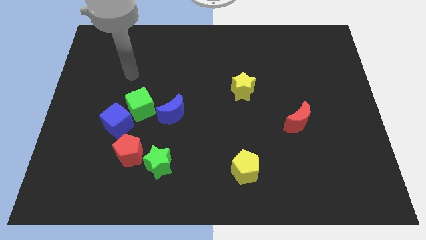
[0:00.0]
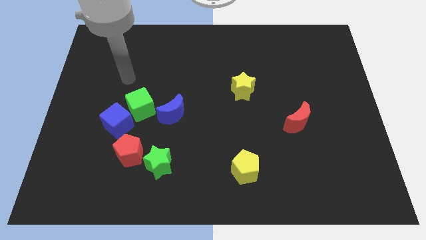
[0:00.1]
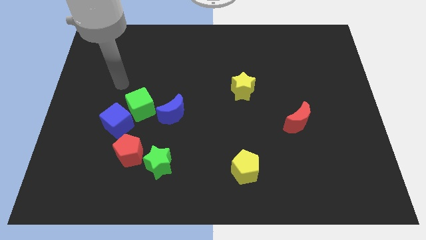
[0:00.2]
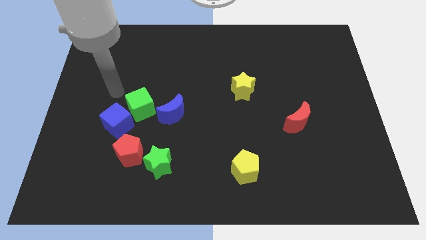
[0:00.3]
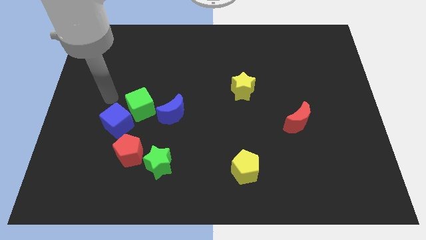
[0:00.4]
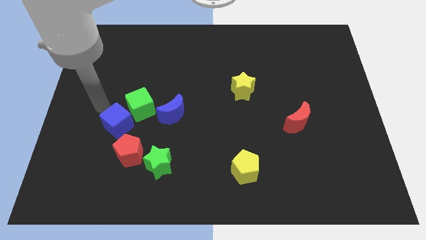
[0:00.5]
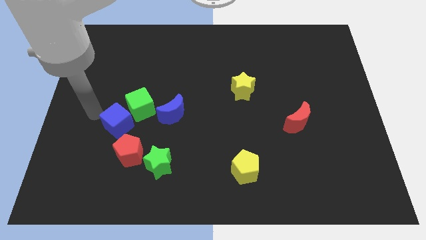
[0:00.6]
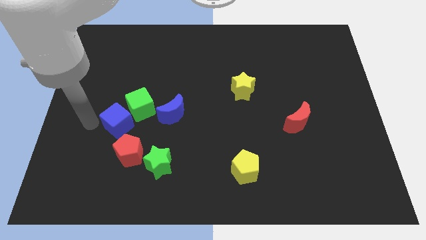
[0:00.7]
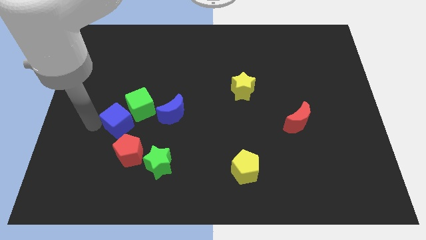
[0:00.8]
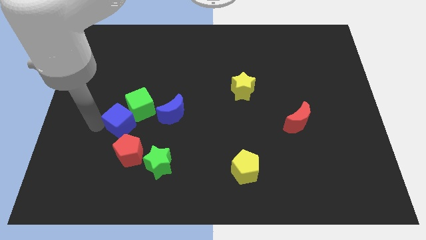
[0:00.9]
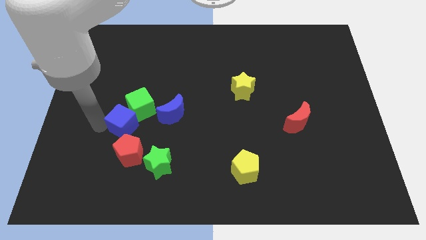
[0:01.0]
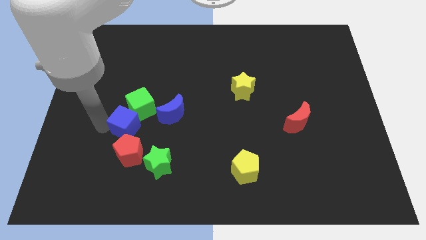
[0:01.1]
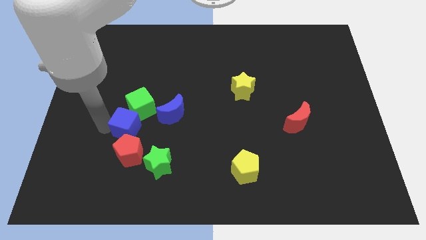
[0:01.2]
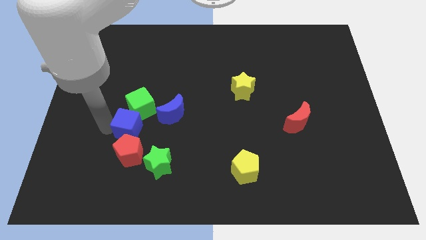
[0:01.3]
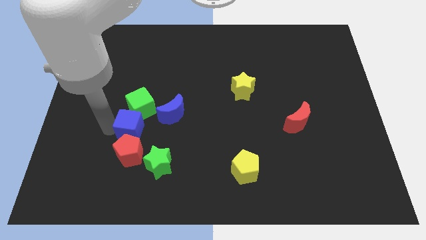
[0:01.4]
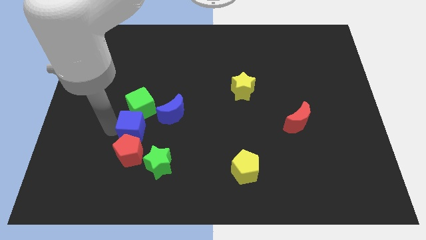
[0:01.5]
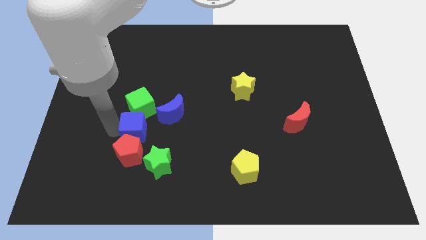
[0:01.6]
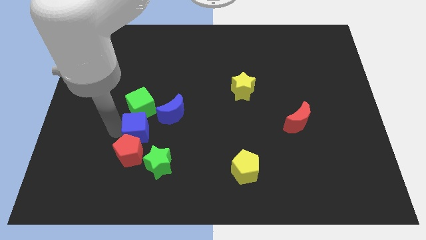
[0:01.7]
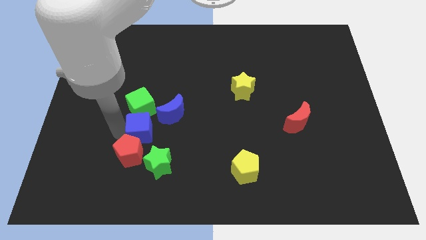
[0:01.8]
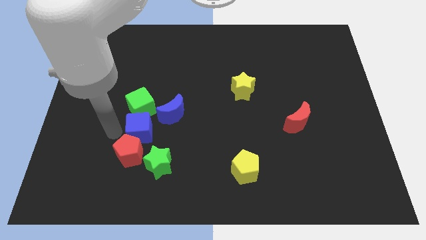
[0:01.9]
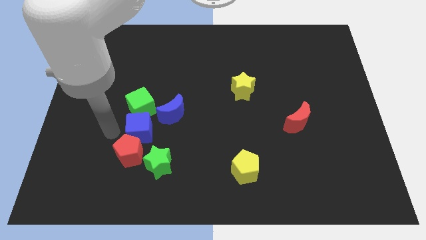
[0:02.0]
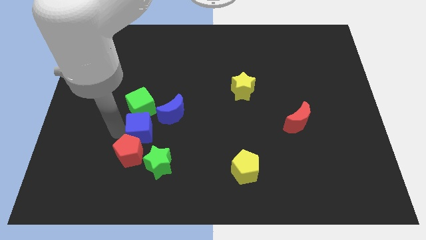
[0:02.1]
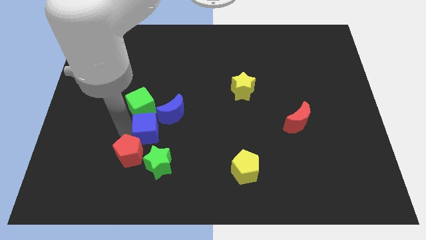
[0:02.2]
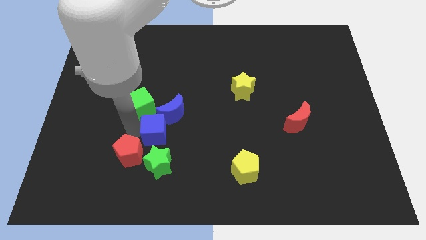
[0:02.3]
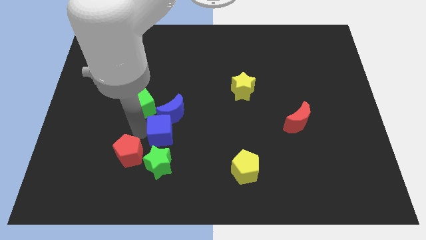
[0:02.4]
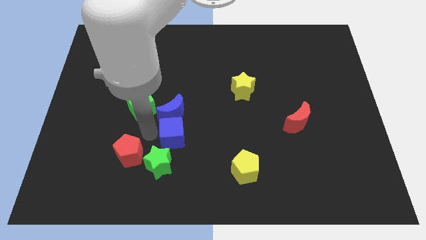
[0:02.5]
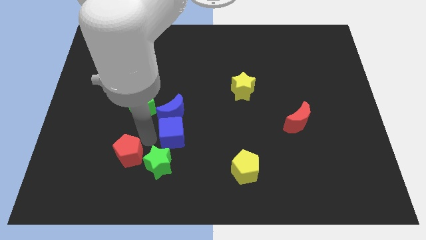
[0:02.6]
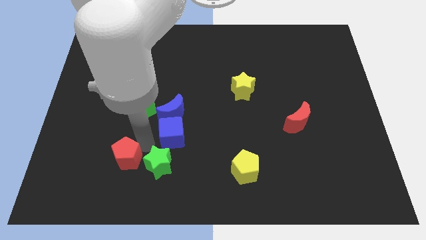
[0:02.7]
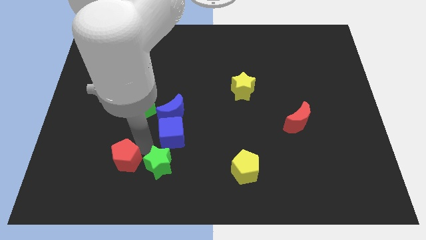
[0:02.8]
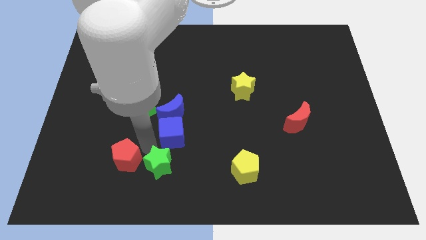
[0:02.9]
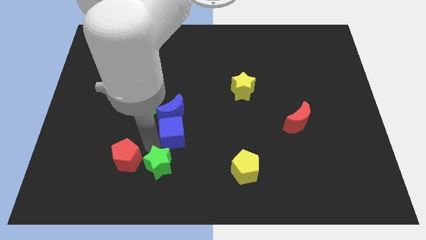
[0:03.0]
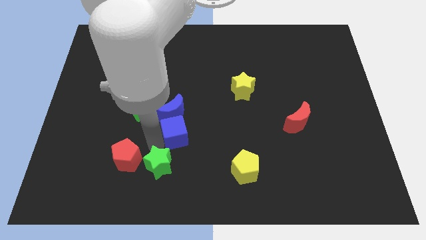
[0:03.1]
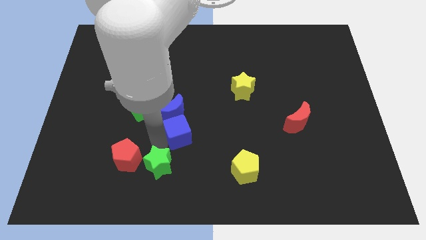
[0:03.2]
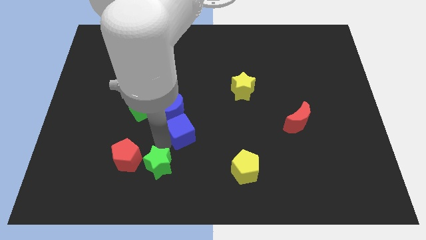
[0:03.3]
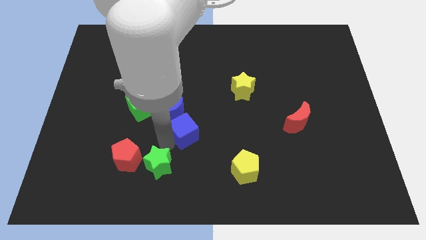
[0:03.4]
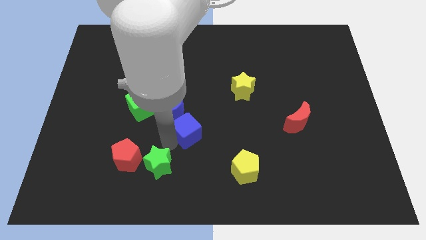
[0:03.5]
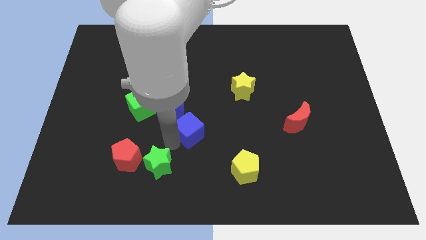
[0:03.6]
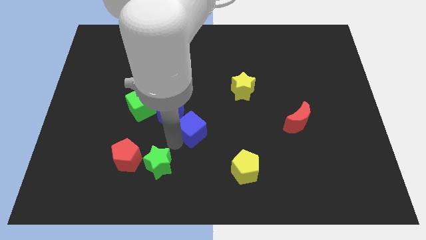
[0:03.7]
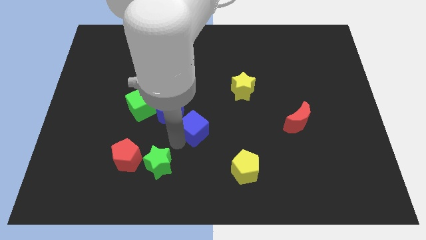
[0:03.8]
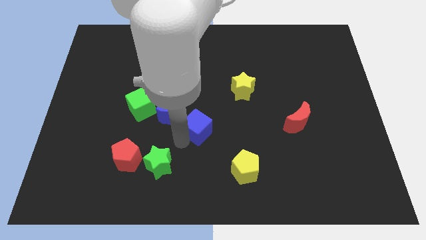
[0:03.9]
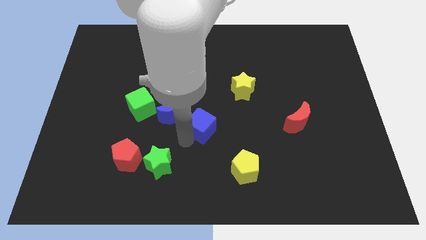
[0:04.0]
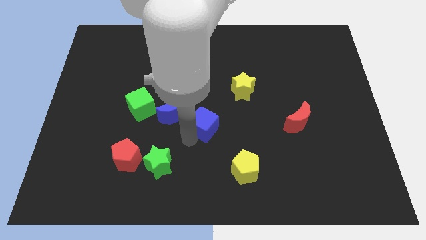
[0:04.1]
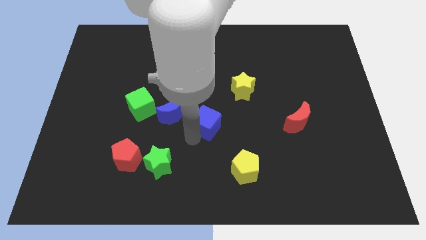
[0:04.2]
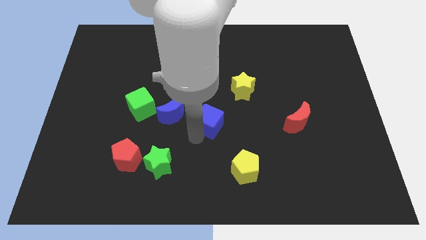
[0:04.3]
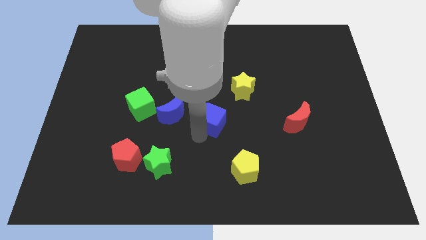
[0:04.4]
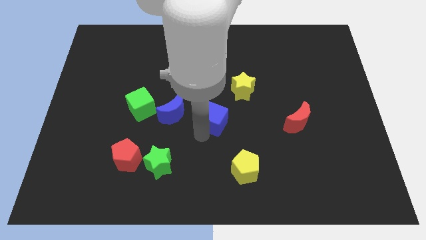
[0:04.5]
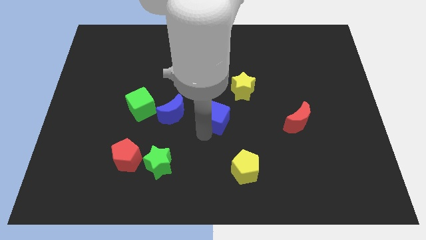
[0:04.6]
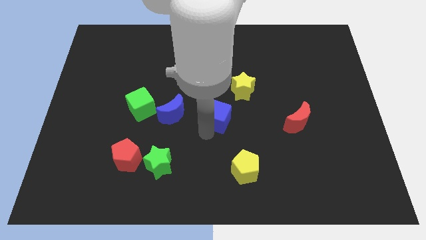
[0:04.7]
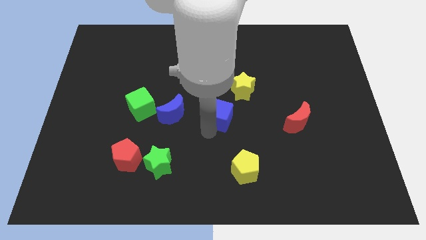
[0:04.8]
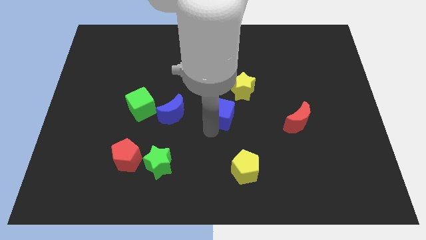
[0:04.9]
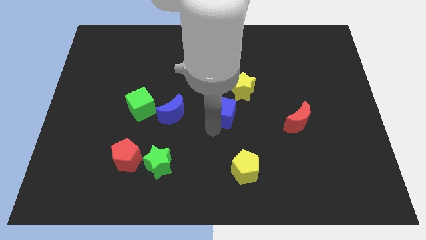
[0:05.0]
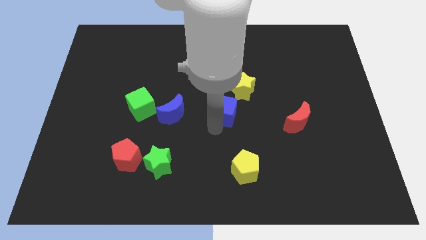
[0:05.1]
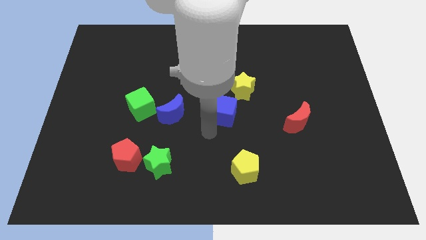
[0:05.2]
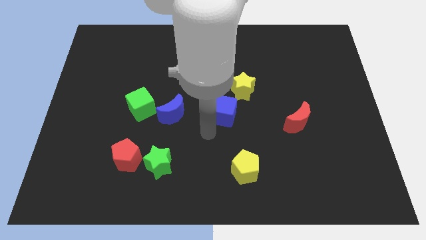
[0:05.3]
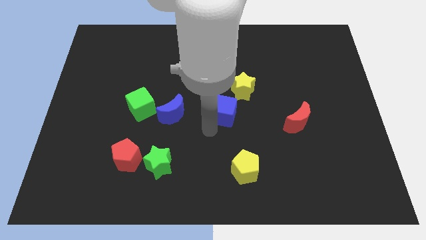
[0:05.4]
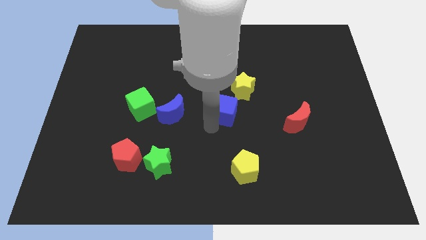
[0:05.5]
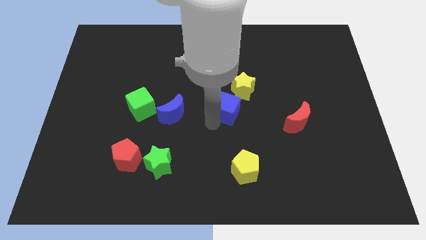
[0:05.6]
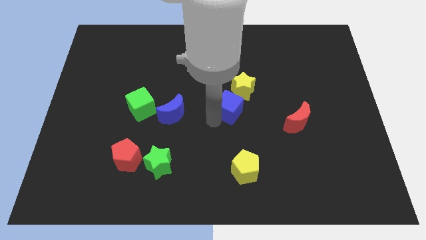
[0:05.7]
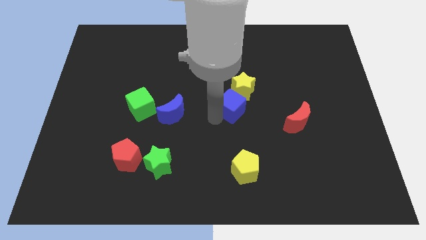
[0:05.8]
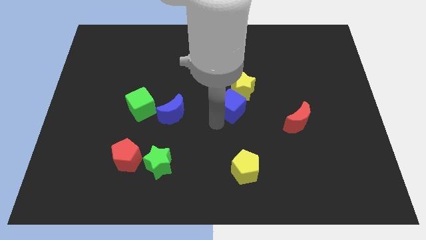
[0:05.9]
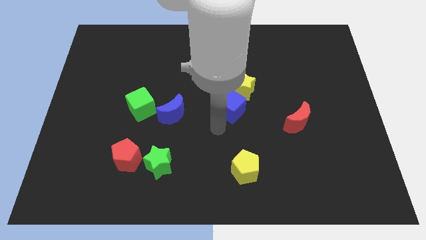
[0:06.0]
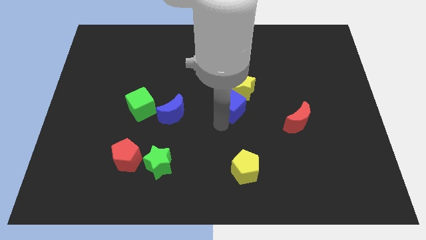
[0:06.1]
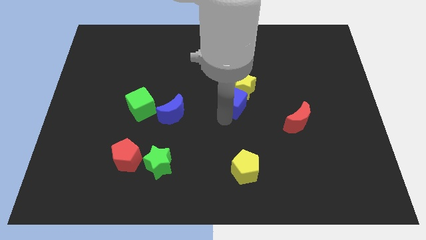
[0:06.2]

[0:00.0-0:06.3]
put the blue cube towards the yellow star

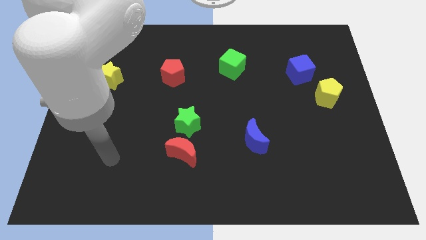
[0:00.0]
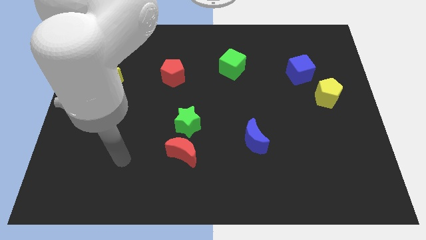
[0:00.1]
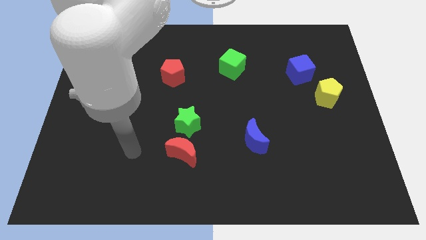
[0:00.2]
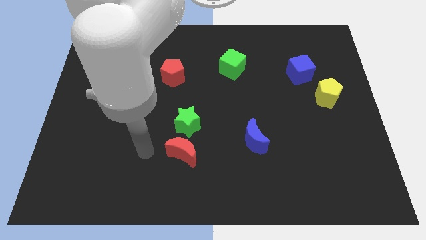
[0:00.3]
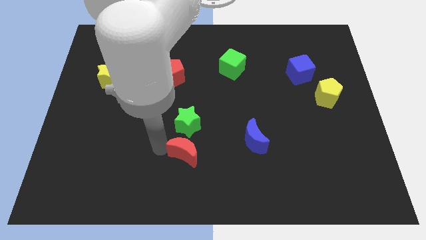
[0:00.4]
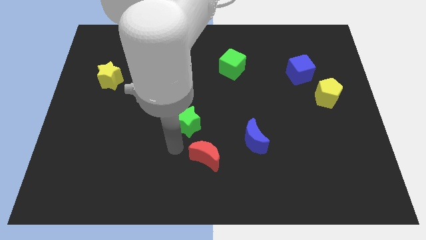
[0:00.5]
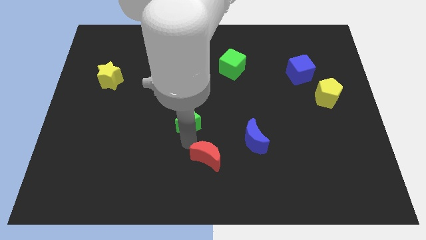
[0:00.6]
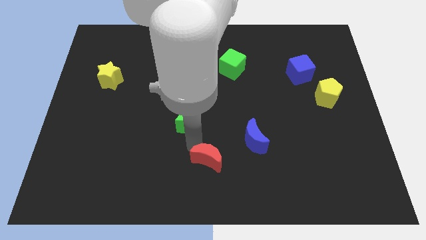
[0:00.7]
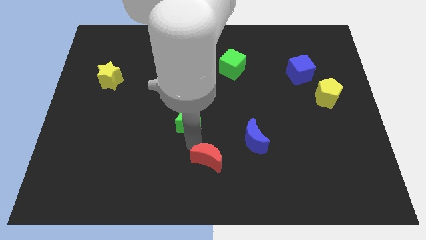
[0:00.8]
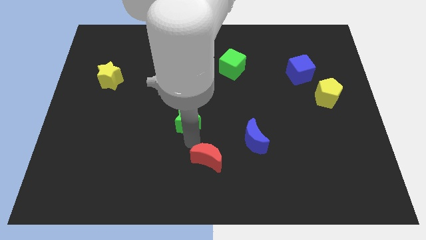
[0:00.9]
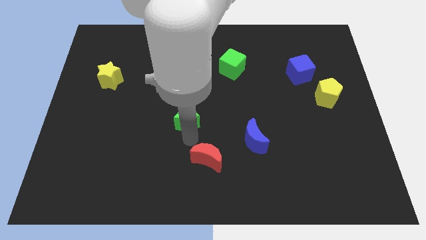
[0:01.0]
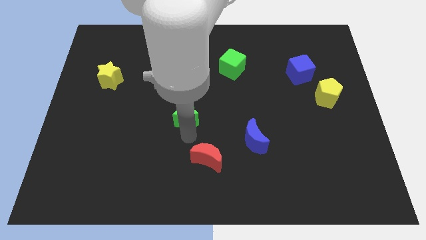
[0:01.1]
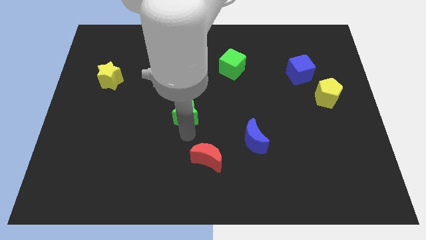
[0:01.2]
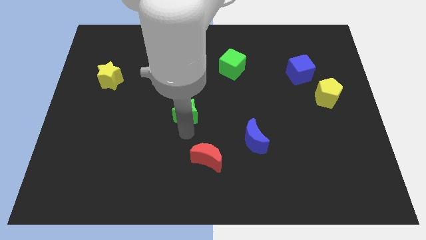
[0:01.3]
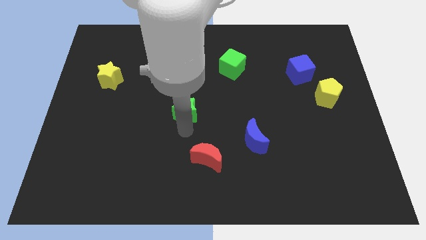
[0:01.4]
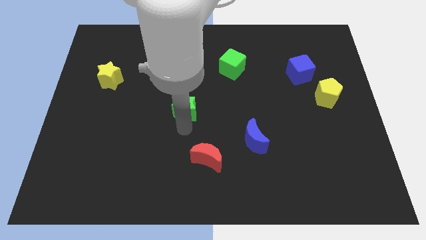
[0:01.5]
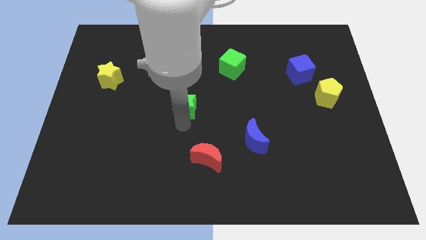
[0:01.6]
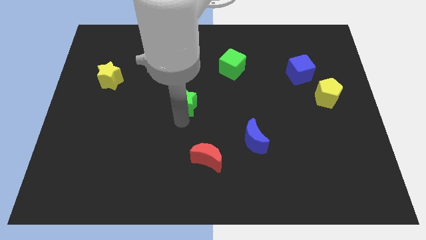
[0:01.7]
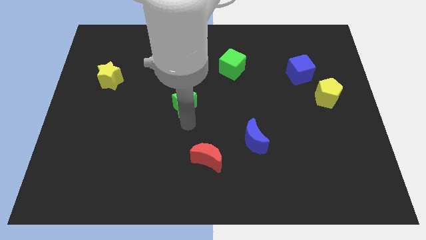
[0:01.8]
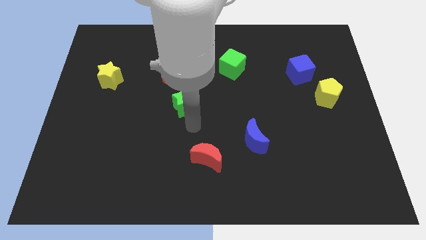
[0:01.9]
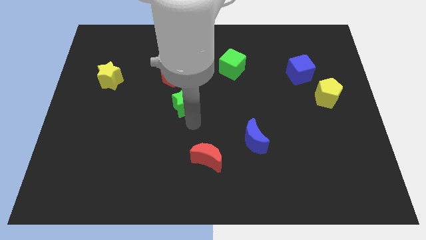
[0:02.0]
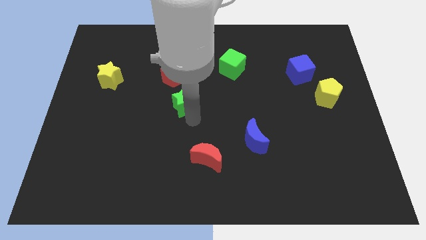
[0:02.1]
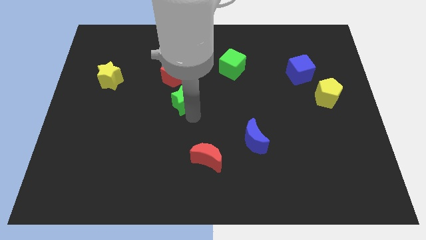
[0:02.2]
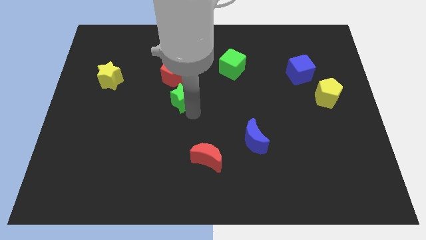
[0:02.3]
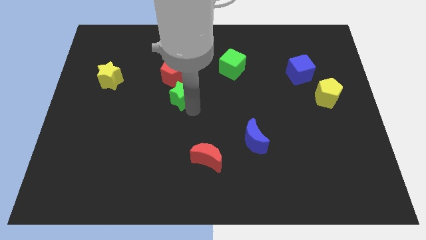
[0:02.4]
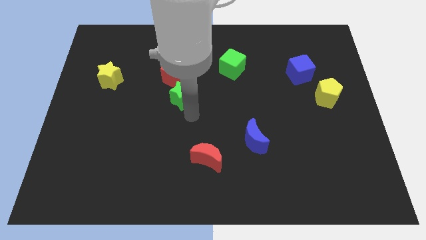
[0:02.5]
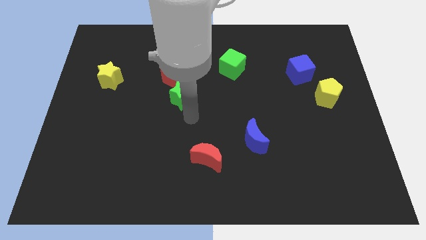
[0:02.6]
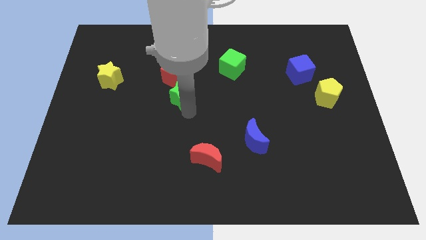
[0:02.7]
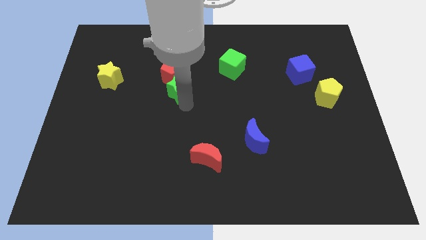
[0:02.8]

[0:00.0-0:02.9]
put the green star towards the red pentagon
